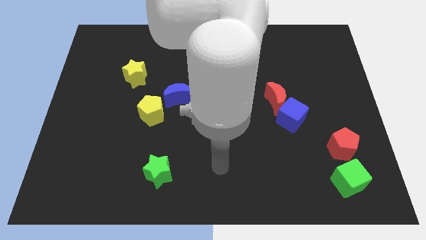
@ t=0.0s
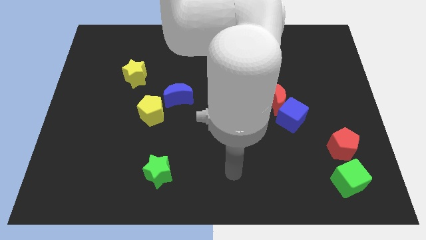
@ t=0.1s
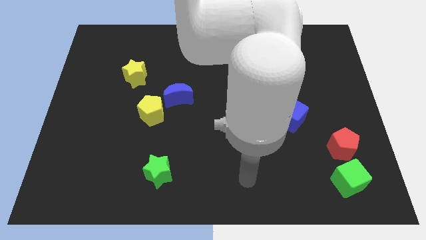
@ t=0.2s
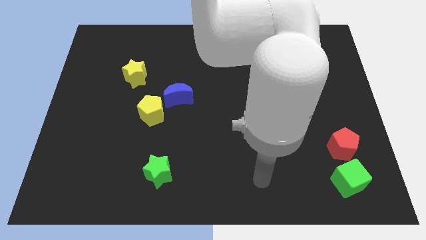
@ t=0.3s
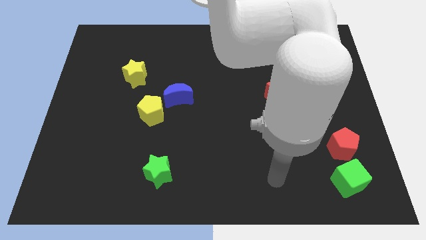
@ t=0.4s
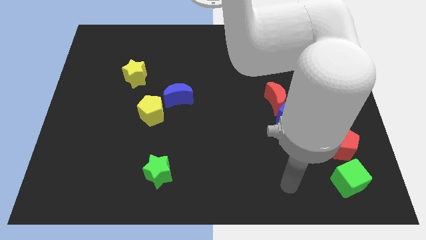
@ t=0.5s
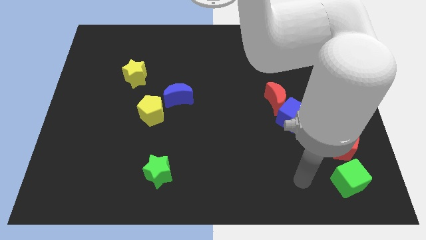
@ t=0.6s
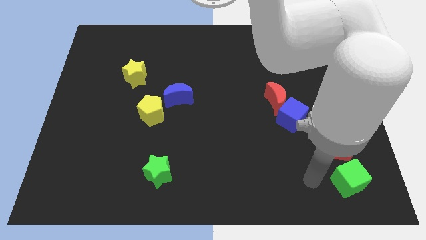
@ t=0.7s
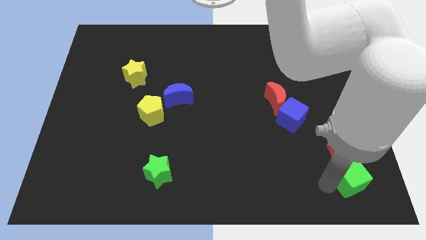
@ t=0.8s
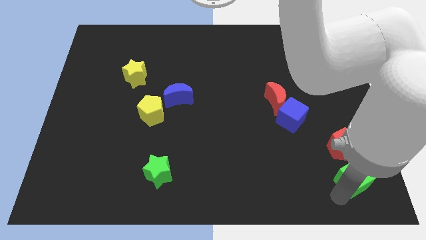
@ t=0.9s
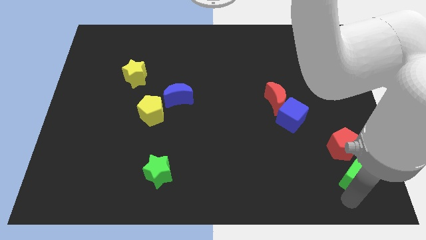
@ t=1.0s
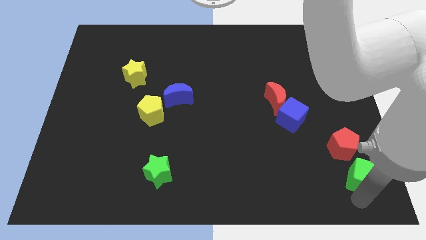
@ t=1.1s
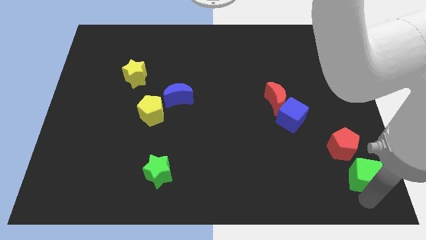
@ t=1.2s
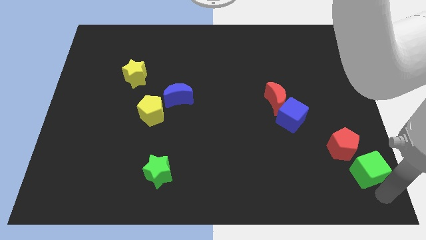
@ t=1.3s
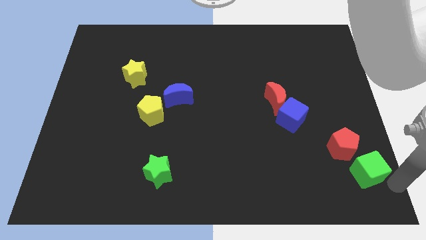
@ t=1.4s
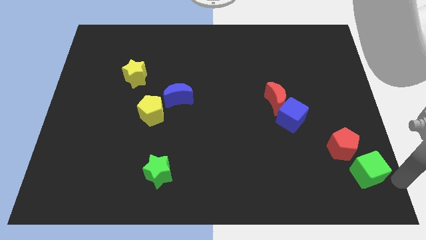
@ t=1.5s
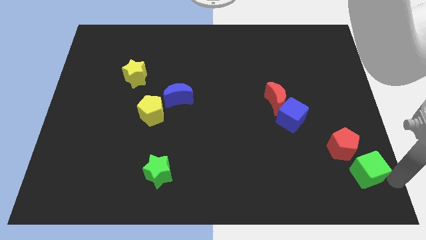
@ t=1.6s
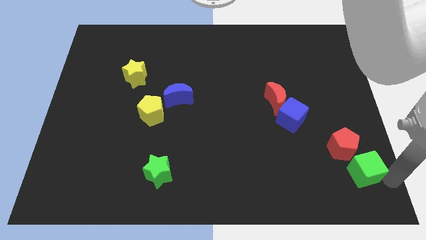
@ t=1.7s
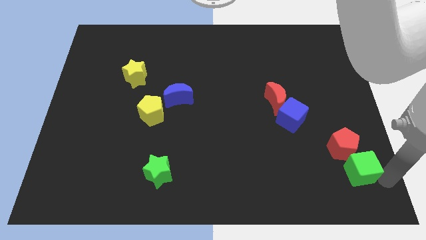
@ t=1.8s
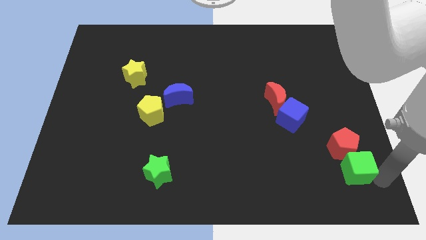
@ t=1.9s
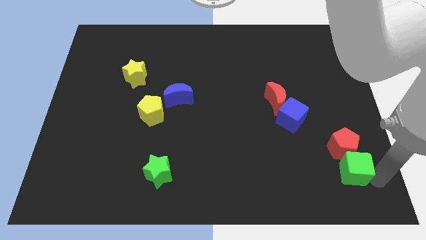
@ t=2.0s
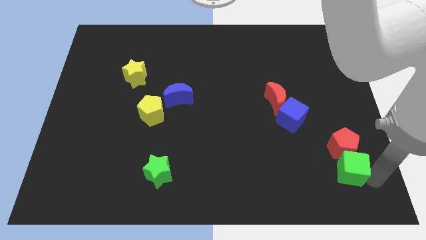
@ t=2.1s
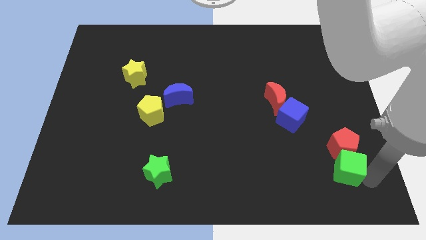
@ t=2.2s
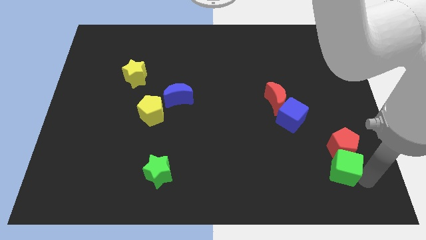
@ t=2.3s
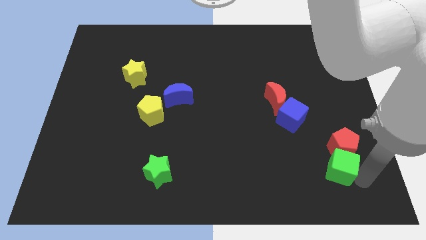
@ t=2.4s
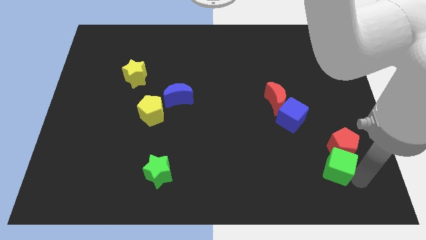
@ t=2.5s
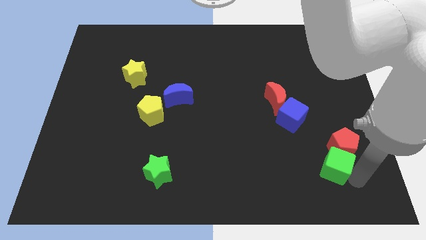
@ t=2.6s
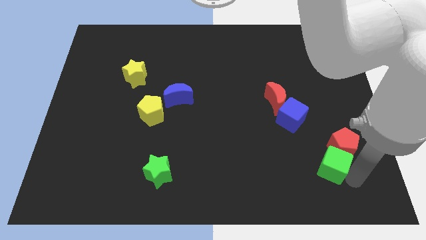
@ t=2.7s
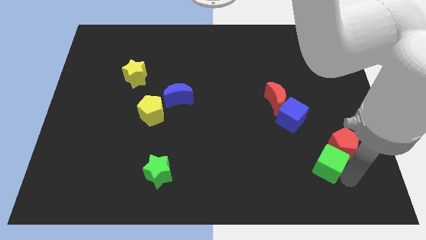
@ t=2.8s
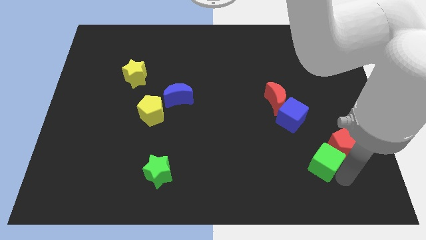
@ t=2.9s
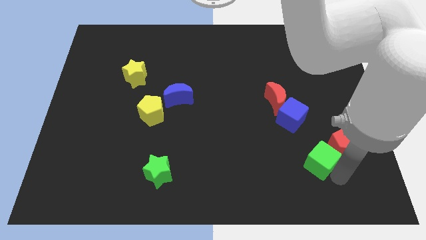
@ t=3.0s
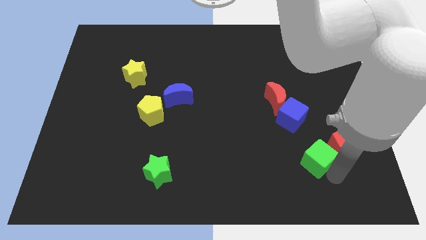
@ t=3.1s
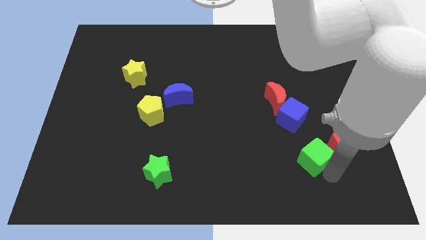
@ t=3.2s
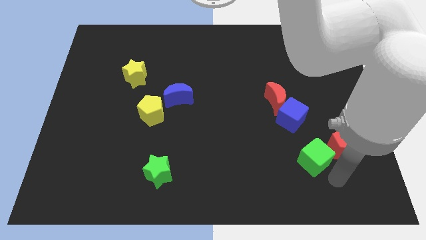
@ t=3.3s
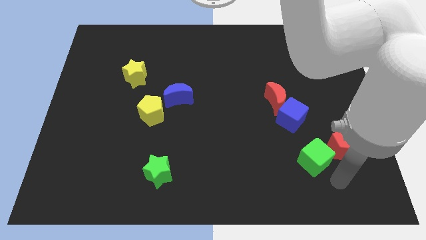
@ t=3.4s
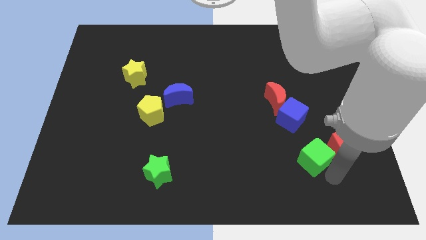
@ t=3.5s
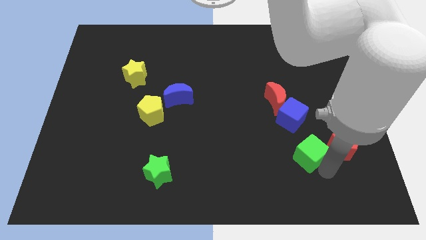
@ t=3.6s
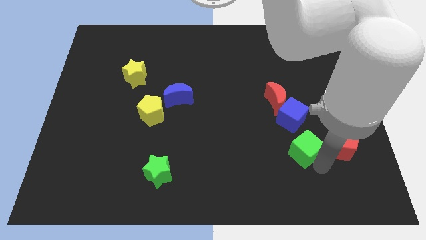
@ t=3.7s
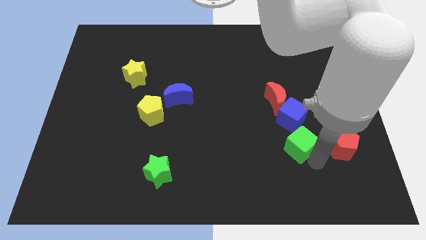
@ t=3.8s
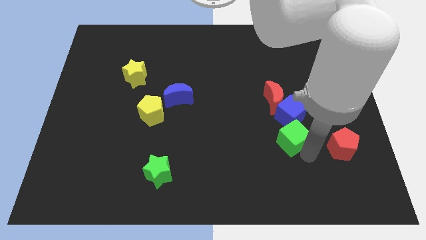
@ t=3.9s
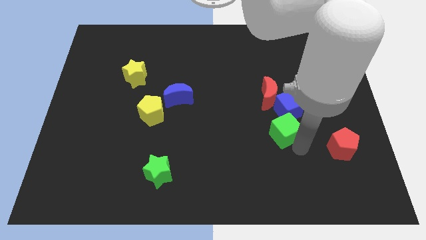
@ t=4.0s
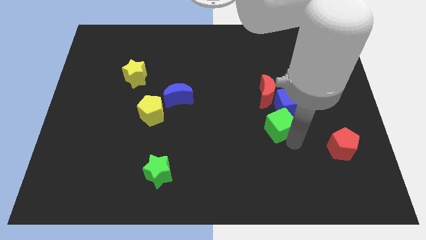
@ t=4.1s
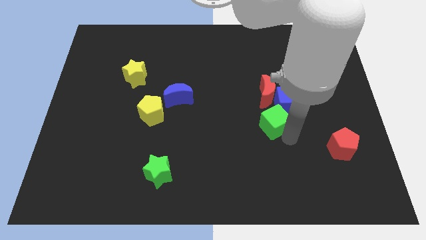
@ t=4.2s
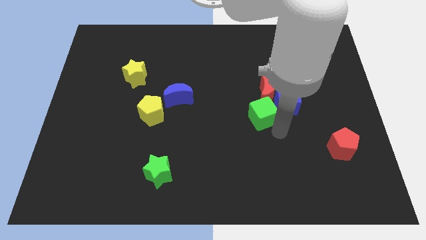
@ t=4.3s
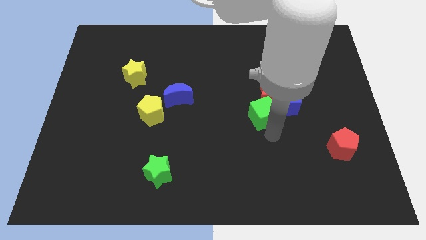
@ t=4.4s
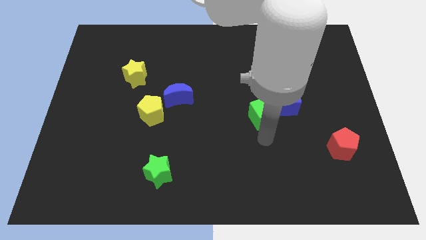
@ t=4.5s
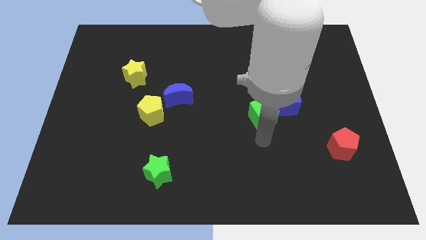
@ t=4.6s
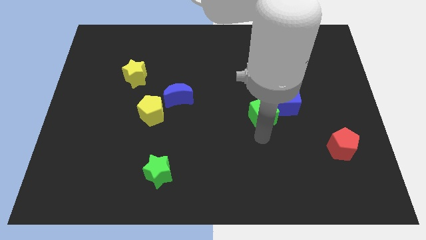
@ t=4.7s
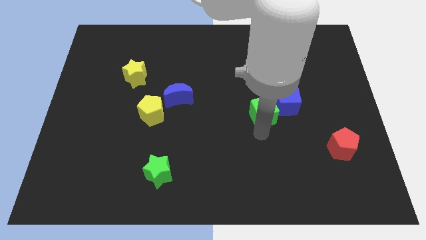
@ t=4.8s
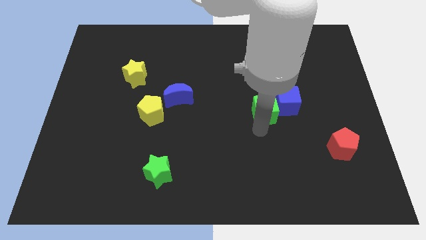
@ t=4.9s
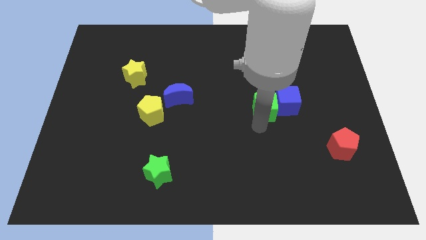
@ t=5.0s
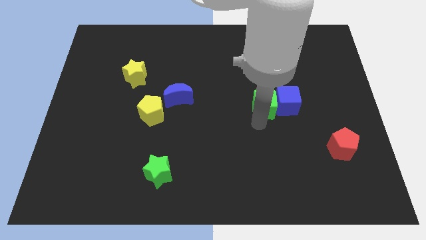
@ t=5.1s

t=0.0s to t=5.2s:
slide the green cube to the top left side of the blue cube

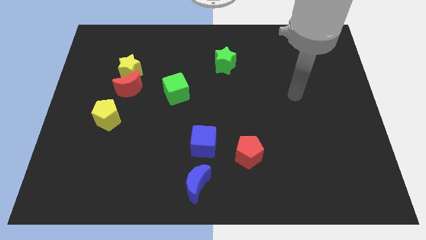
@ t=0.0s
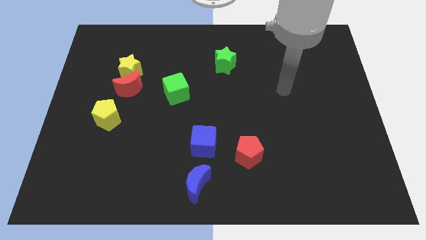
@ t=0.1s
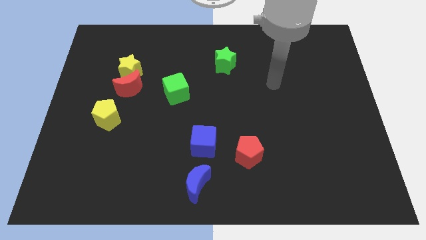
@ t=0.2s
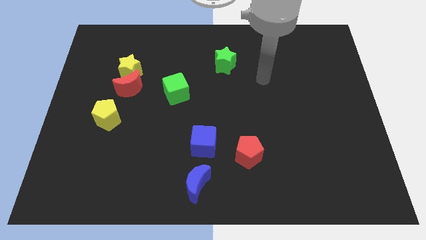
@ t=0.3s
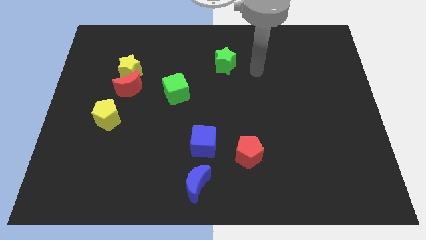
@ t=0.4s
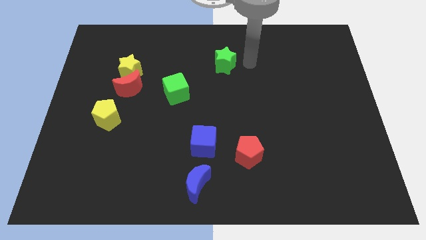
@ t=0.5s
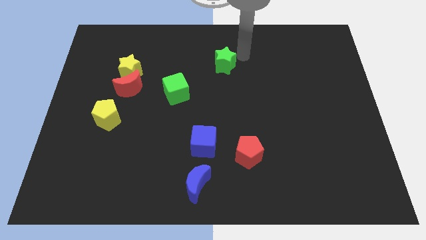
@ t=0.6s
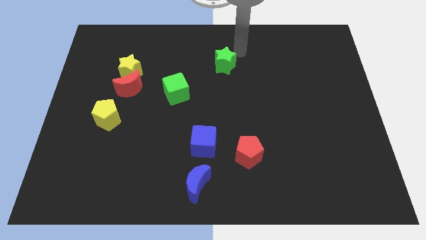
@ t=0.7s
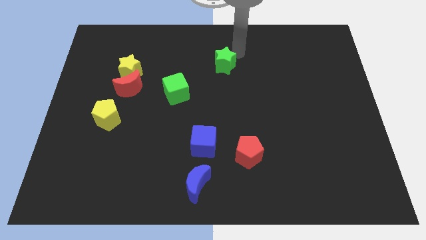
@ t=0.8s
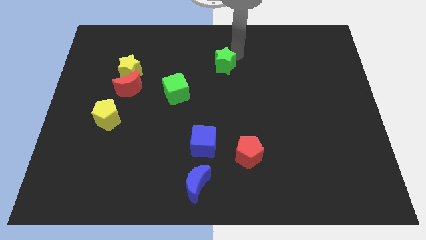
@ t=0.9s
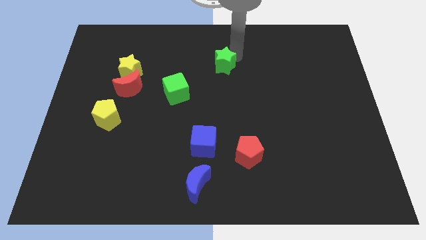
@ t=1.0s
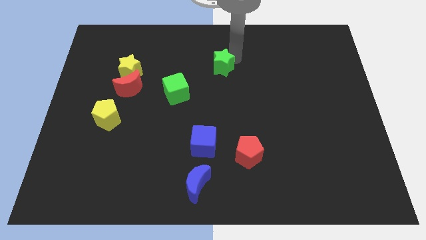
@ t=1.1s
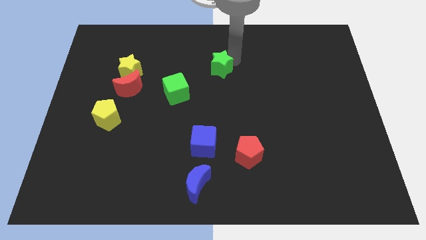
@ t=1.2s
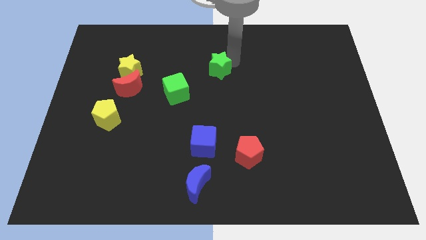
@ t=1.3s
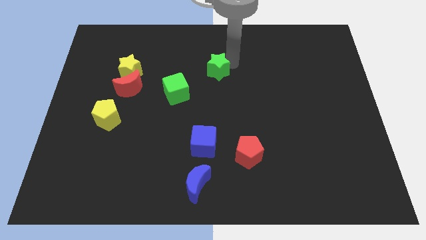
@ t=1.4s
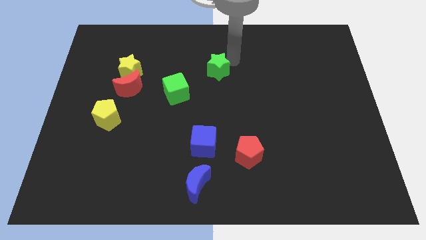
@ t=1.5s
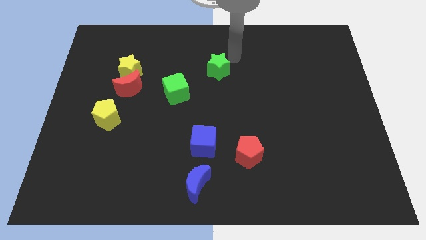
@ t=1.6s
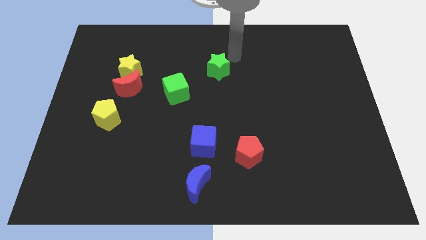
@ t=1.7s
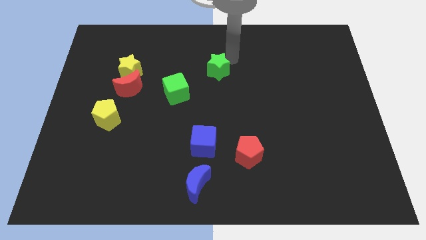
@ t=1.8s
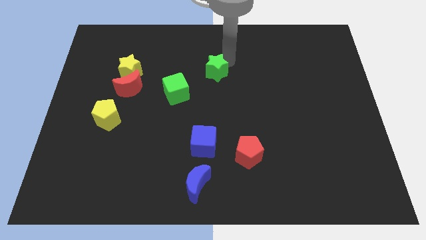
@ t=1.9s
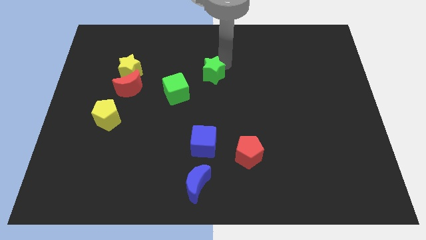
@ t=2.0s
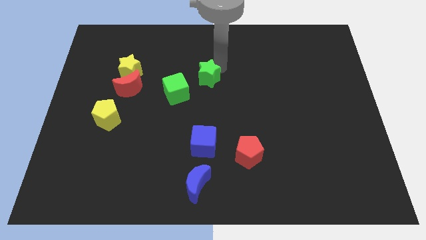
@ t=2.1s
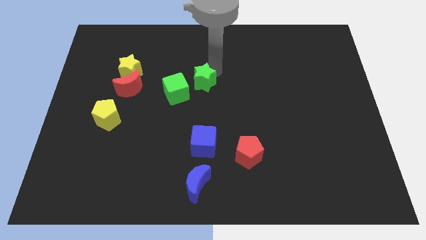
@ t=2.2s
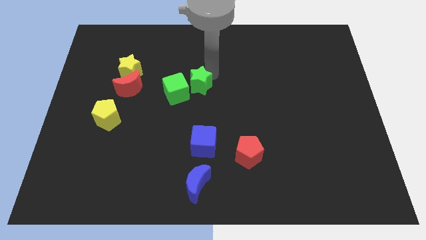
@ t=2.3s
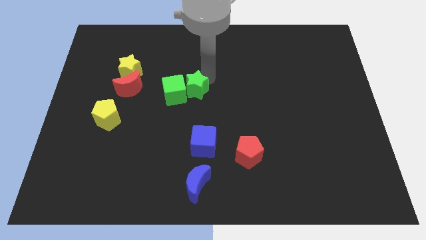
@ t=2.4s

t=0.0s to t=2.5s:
put the green star to the right side of the red moon
